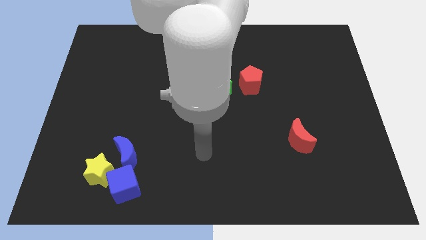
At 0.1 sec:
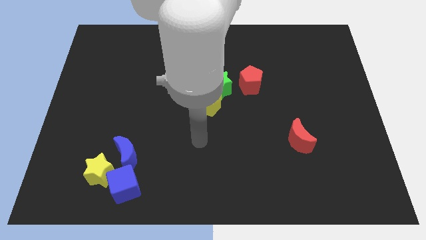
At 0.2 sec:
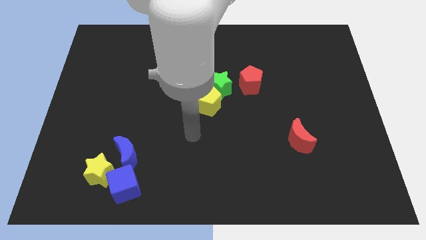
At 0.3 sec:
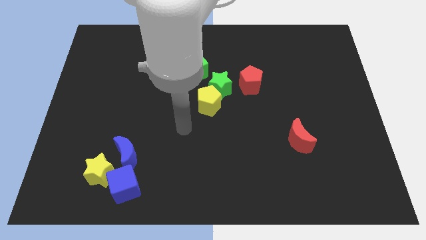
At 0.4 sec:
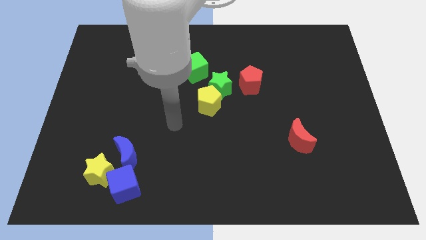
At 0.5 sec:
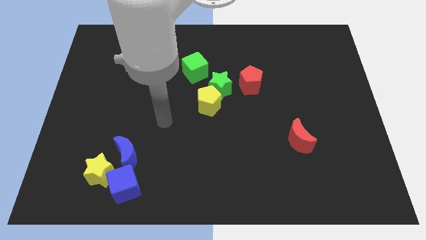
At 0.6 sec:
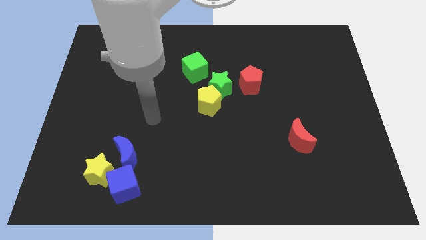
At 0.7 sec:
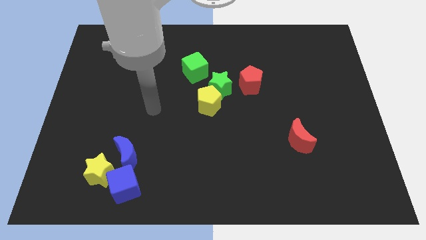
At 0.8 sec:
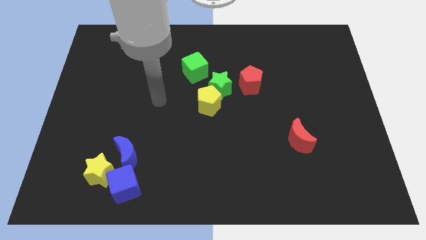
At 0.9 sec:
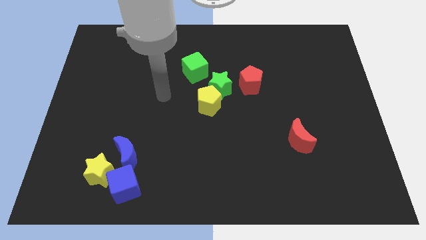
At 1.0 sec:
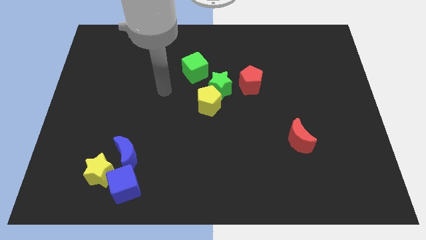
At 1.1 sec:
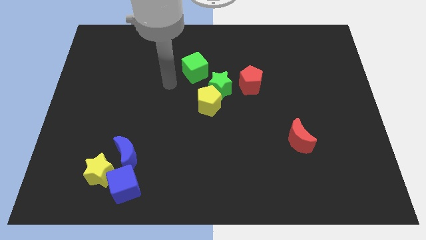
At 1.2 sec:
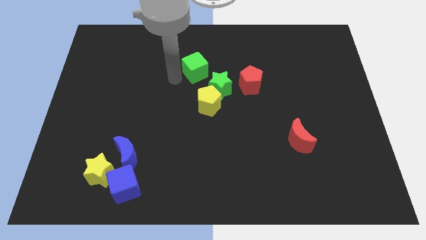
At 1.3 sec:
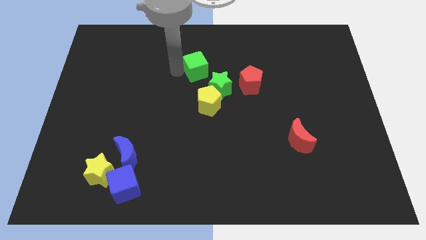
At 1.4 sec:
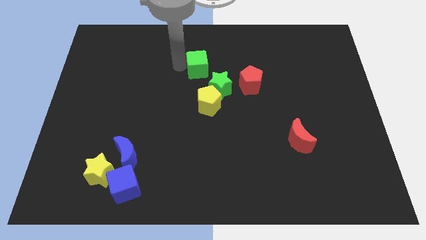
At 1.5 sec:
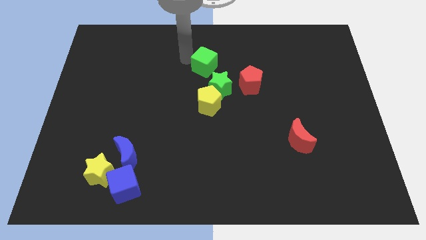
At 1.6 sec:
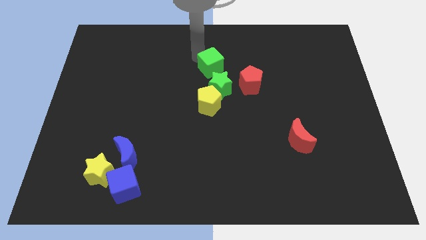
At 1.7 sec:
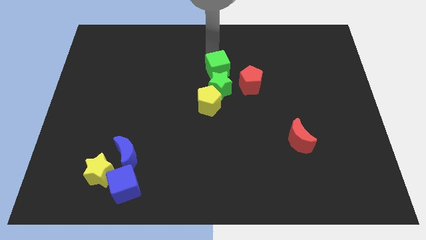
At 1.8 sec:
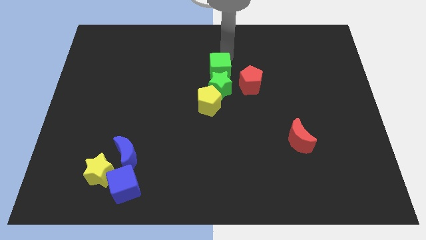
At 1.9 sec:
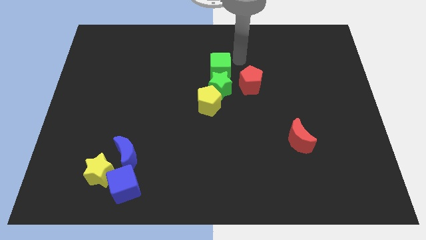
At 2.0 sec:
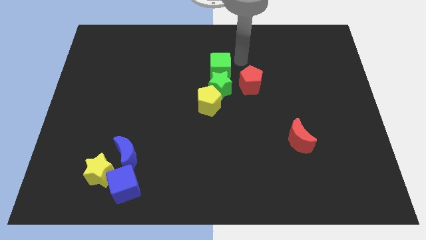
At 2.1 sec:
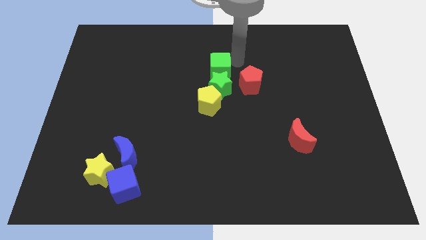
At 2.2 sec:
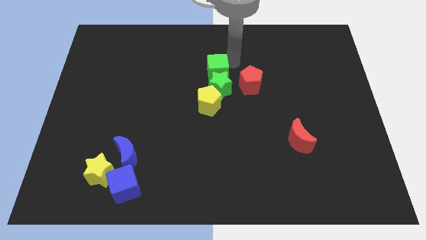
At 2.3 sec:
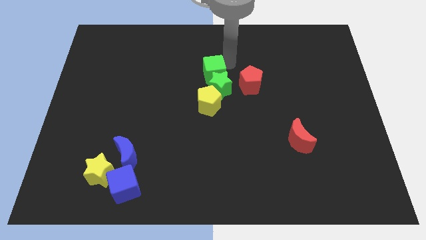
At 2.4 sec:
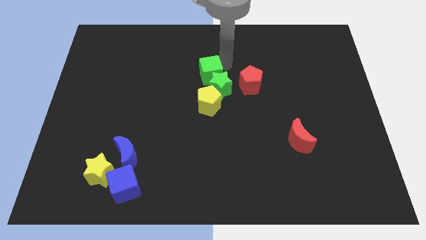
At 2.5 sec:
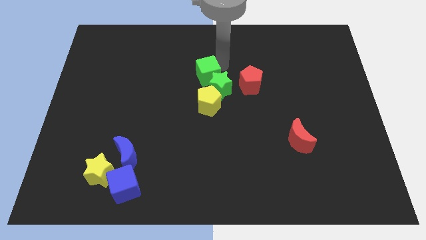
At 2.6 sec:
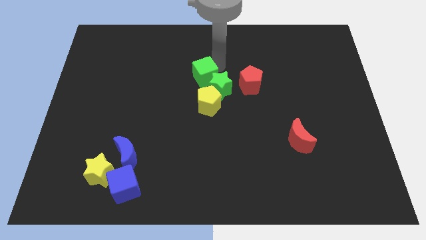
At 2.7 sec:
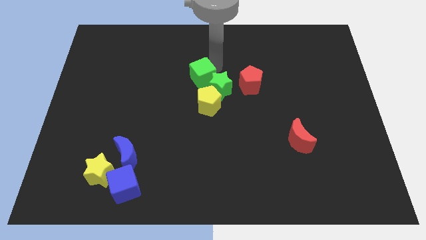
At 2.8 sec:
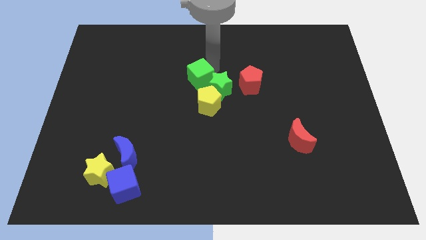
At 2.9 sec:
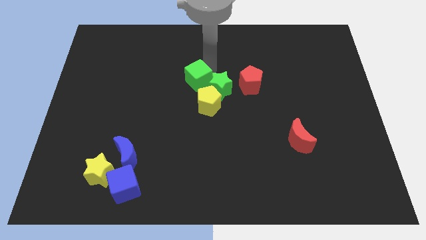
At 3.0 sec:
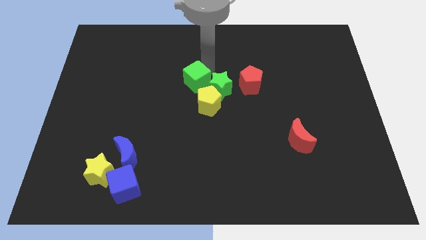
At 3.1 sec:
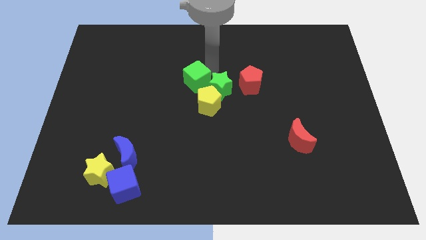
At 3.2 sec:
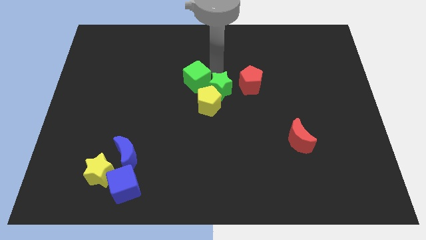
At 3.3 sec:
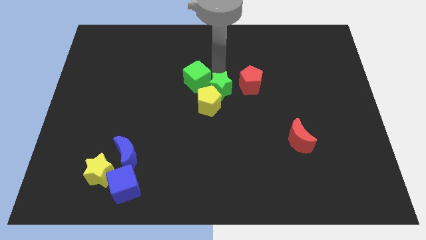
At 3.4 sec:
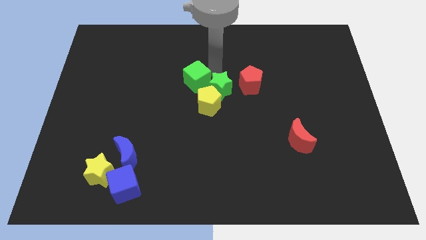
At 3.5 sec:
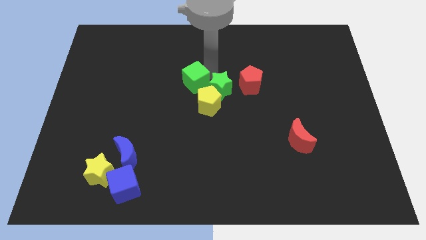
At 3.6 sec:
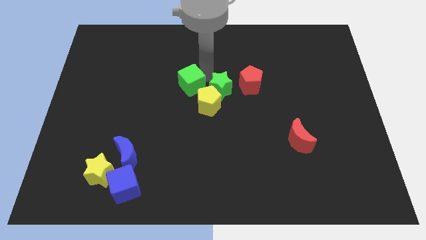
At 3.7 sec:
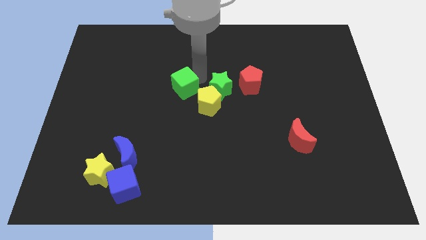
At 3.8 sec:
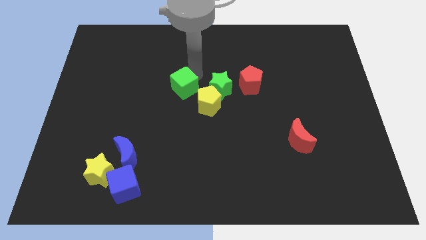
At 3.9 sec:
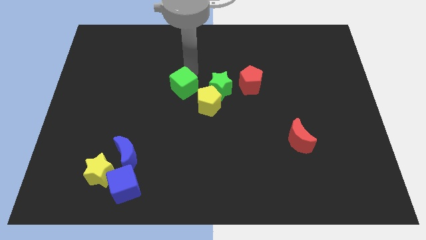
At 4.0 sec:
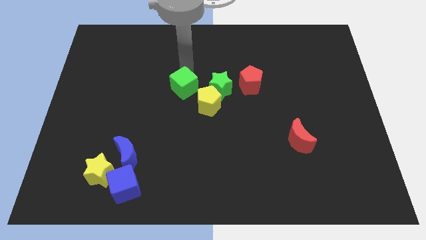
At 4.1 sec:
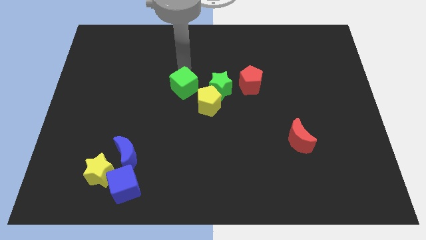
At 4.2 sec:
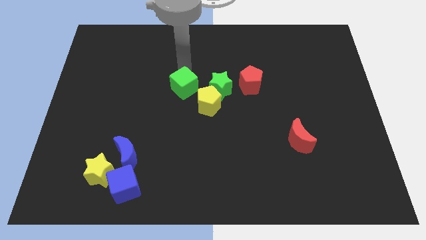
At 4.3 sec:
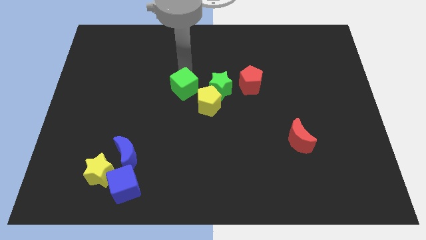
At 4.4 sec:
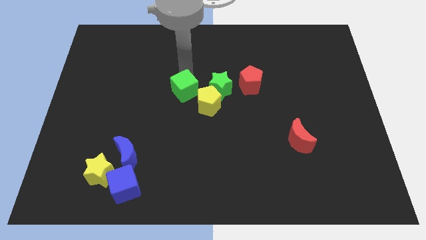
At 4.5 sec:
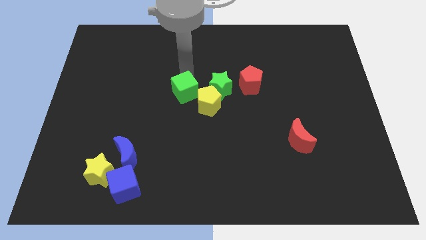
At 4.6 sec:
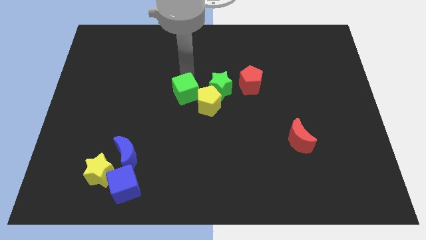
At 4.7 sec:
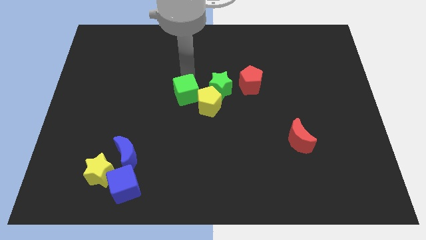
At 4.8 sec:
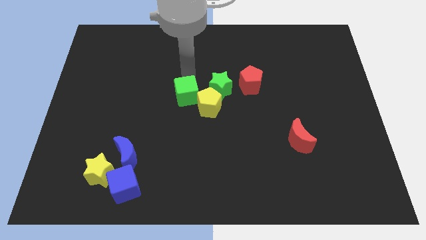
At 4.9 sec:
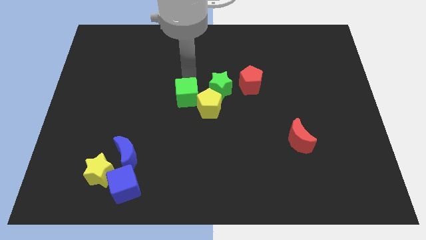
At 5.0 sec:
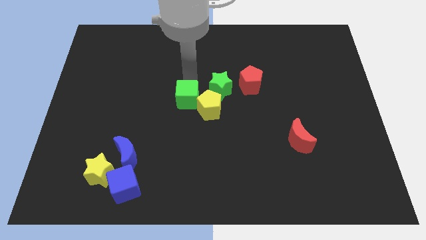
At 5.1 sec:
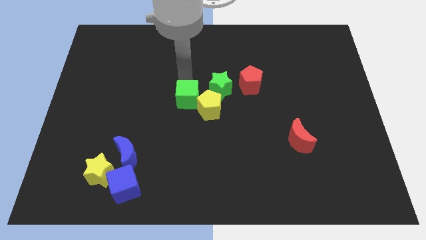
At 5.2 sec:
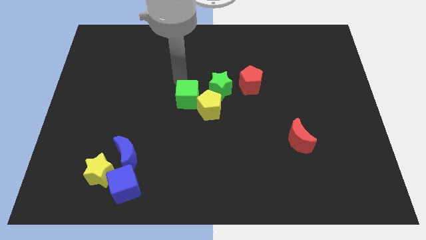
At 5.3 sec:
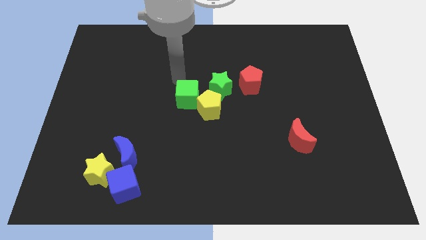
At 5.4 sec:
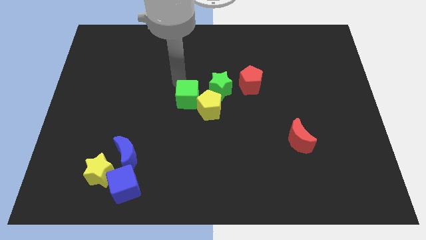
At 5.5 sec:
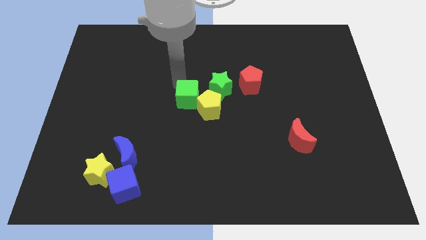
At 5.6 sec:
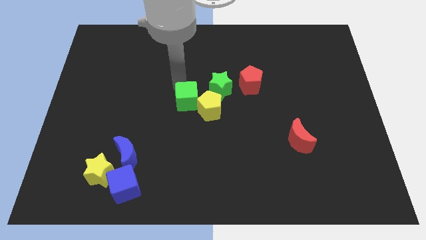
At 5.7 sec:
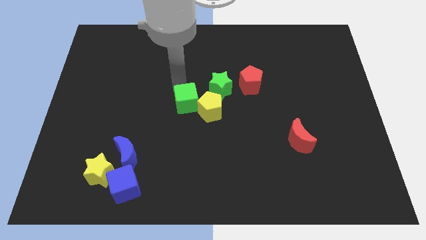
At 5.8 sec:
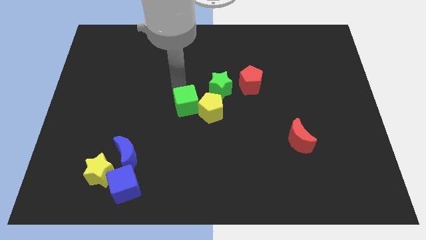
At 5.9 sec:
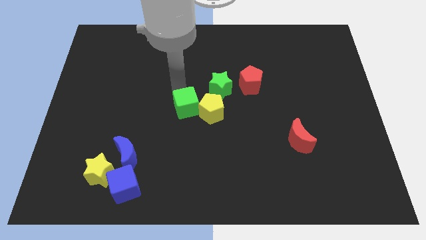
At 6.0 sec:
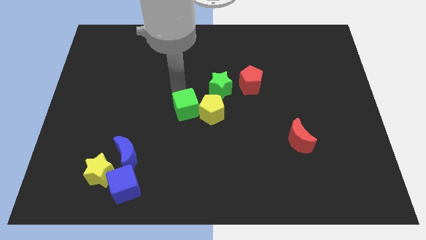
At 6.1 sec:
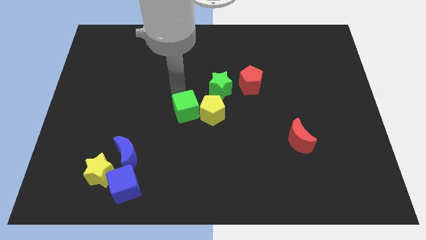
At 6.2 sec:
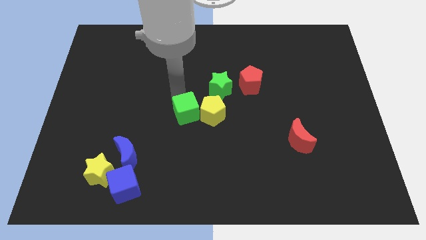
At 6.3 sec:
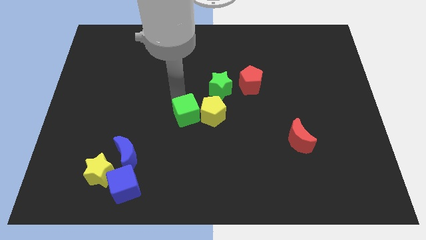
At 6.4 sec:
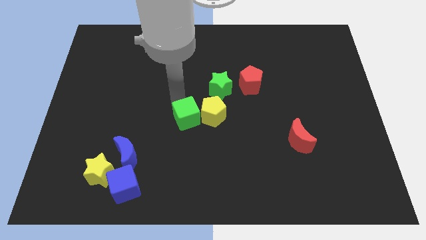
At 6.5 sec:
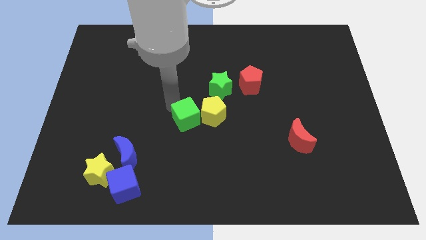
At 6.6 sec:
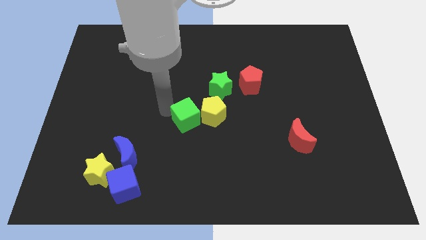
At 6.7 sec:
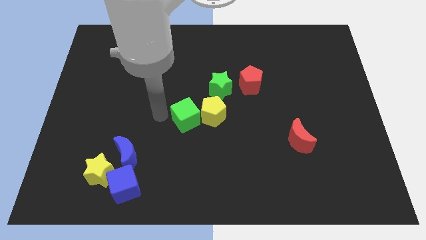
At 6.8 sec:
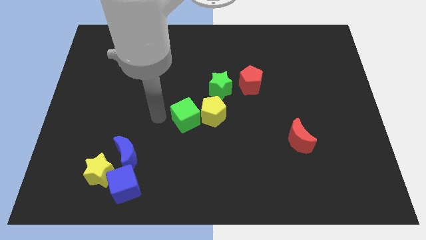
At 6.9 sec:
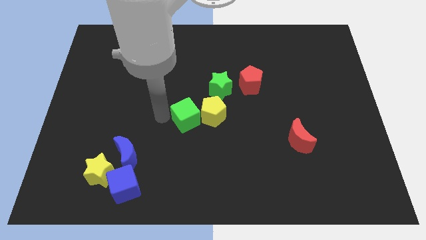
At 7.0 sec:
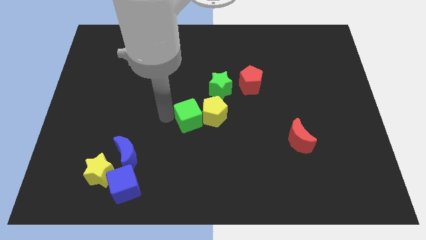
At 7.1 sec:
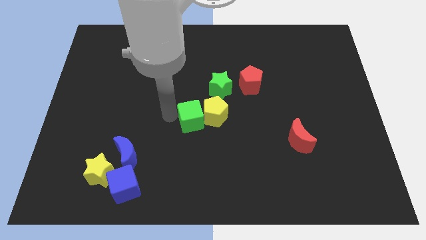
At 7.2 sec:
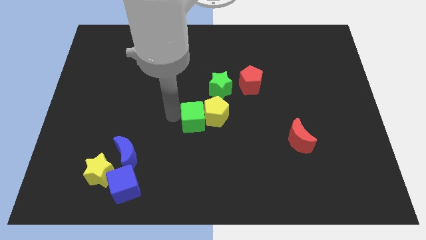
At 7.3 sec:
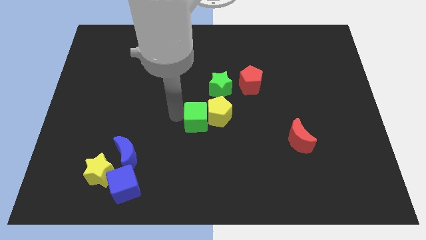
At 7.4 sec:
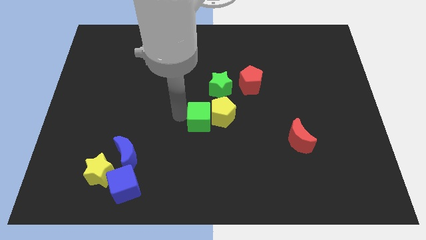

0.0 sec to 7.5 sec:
push the green cube a little down and to the right

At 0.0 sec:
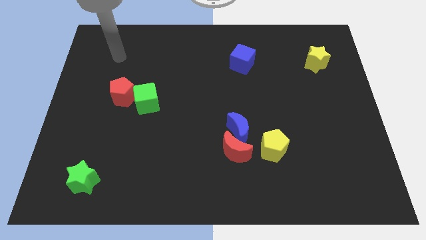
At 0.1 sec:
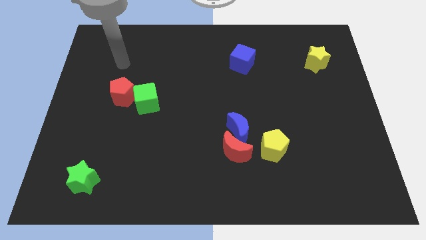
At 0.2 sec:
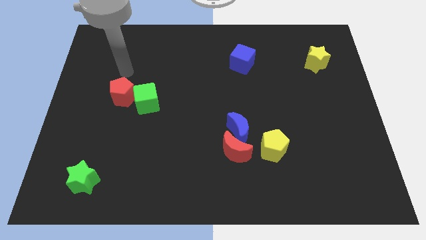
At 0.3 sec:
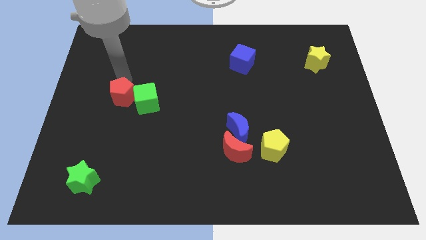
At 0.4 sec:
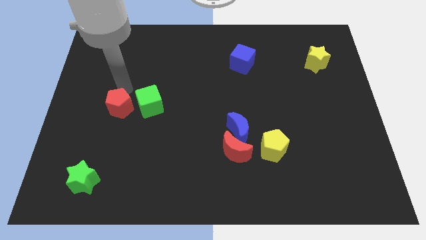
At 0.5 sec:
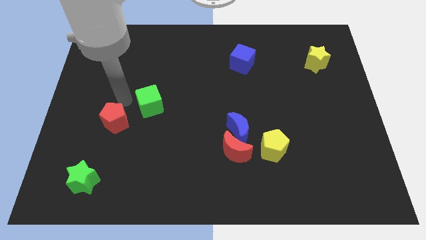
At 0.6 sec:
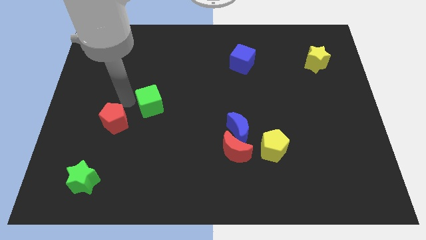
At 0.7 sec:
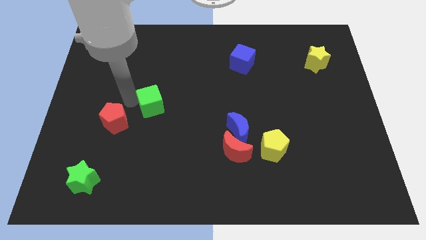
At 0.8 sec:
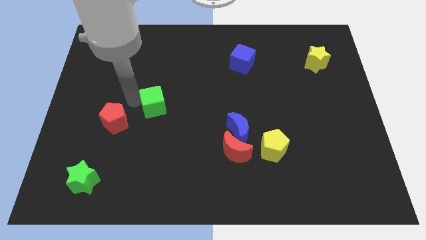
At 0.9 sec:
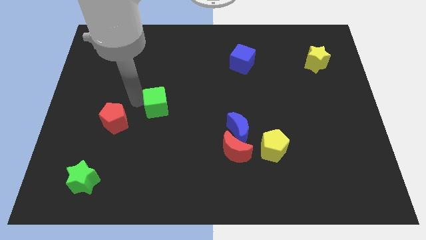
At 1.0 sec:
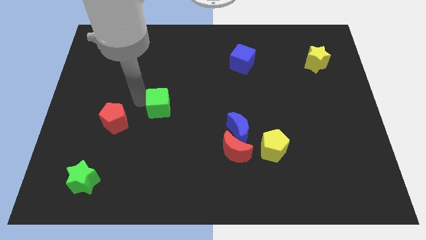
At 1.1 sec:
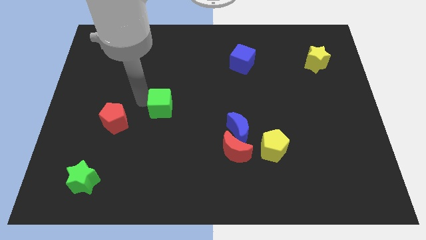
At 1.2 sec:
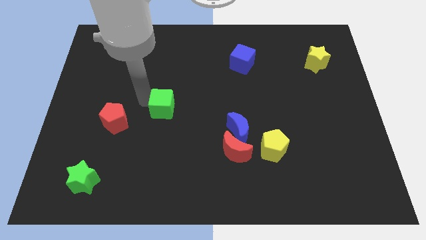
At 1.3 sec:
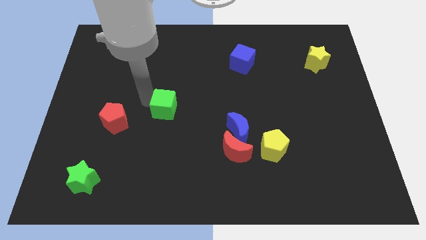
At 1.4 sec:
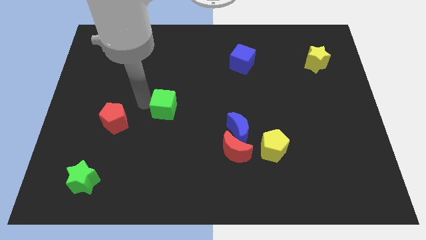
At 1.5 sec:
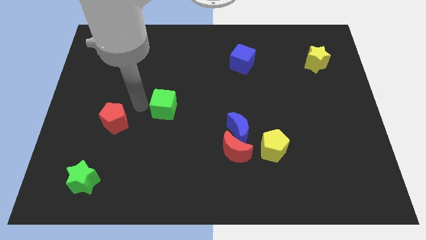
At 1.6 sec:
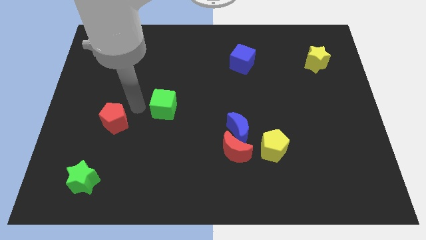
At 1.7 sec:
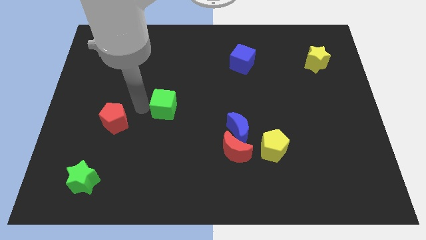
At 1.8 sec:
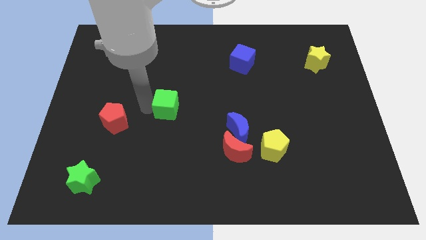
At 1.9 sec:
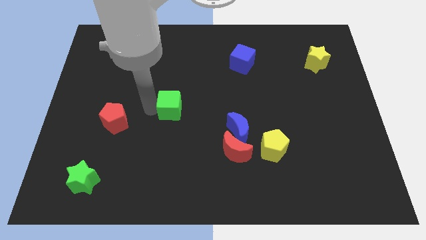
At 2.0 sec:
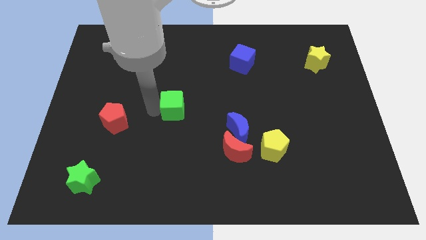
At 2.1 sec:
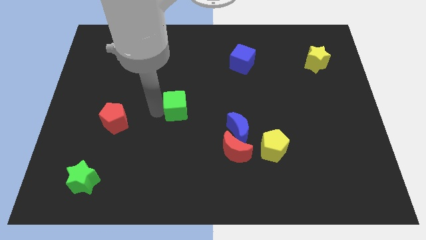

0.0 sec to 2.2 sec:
slide the green cube right a little
